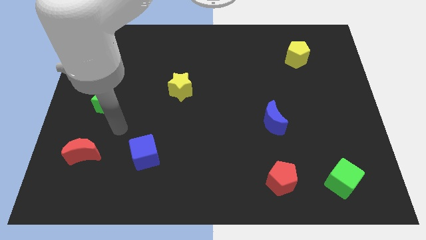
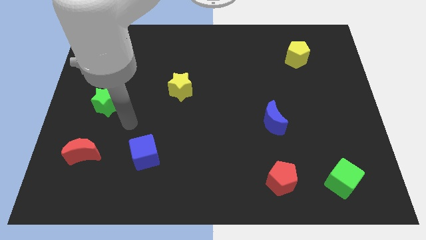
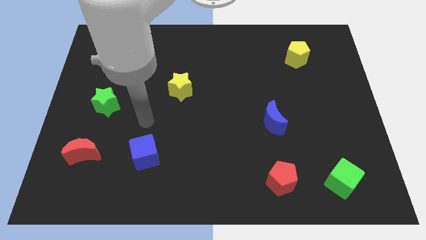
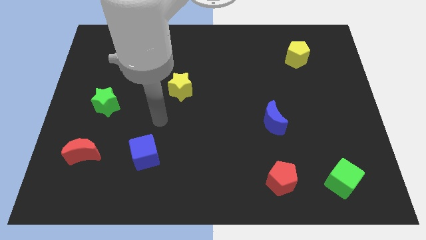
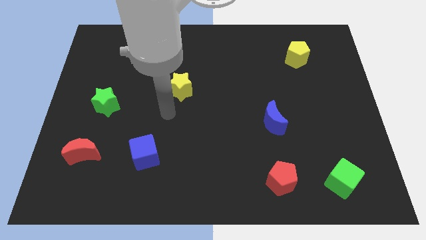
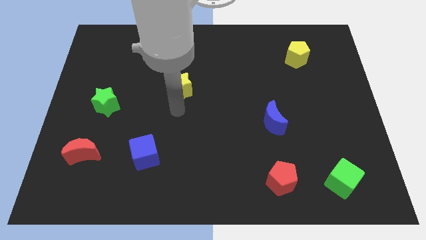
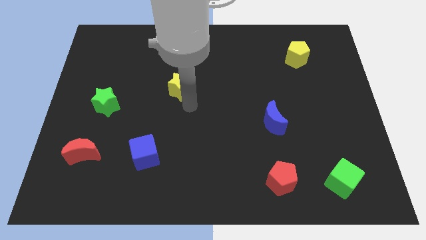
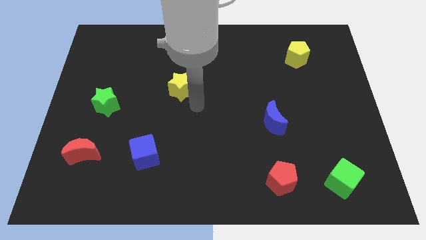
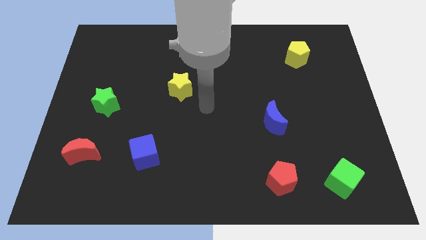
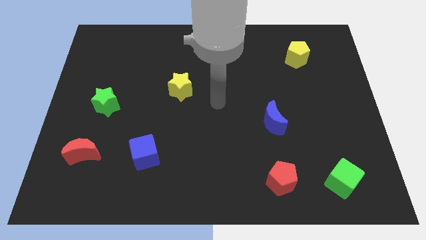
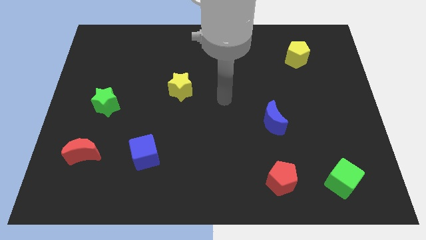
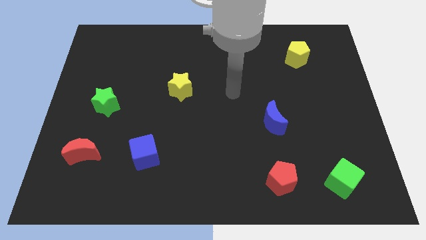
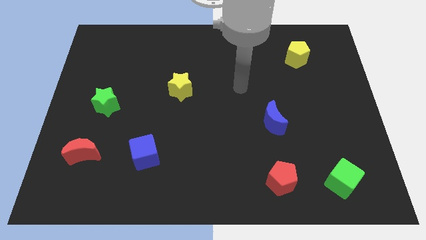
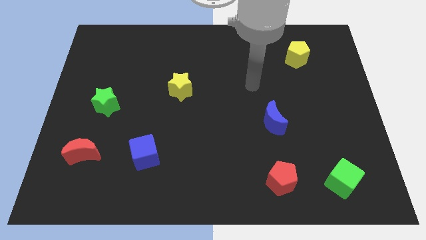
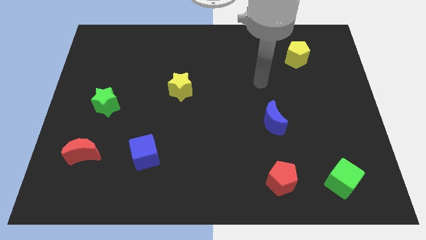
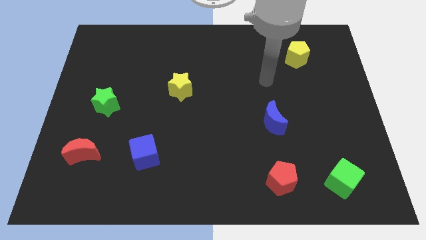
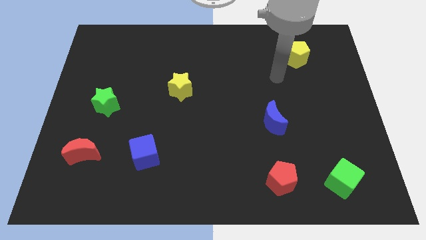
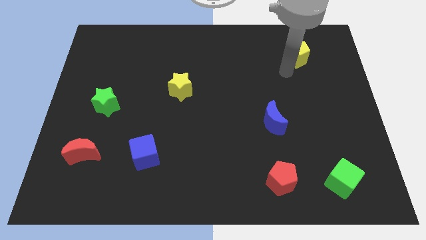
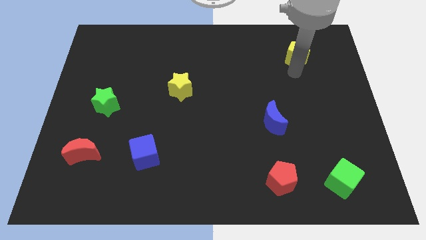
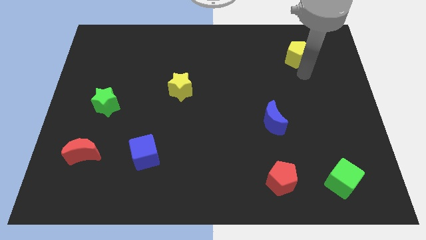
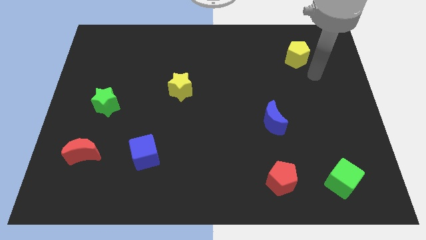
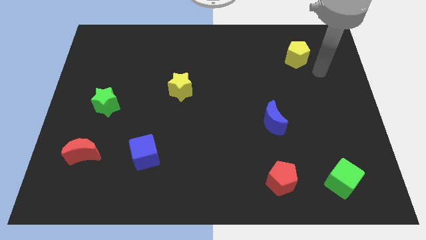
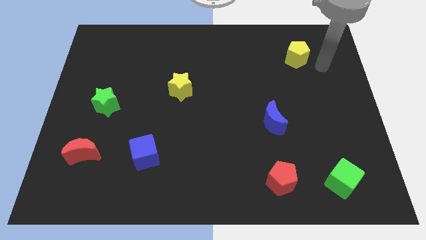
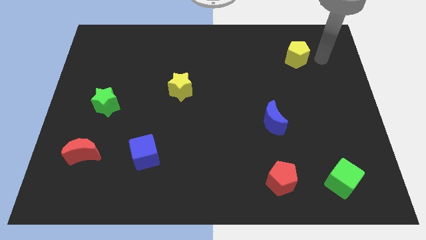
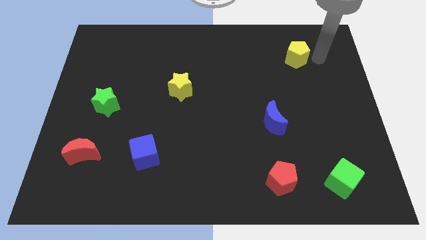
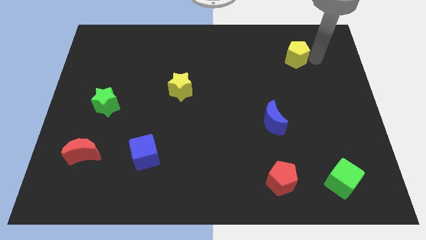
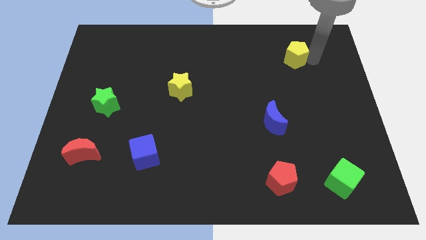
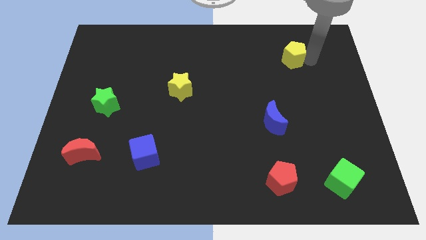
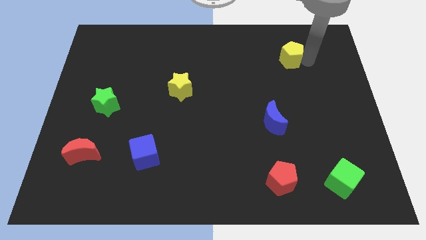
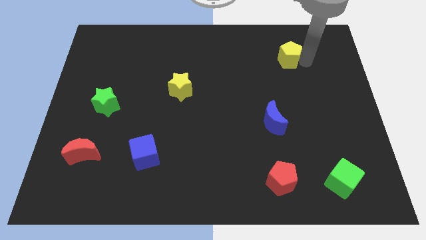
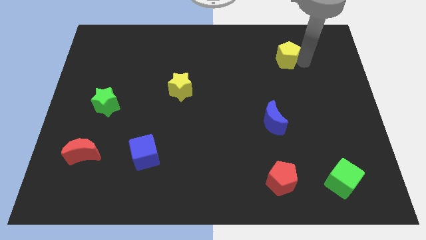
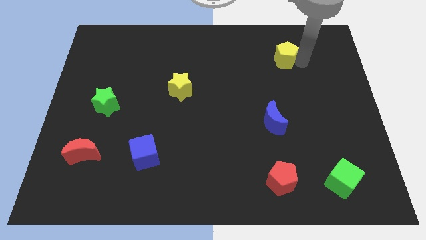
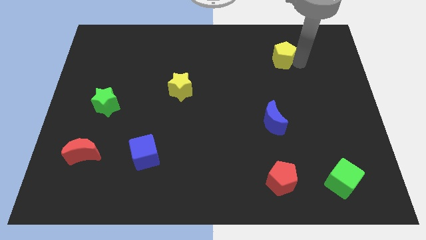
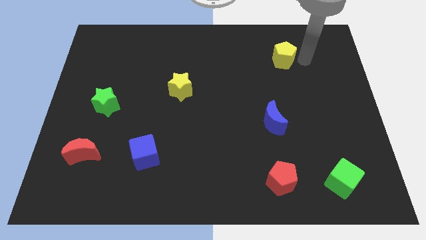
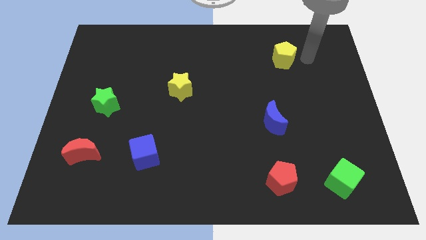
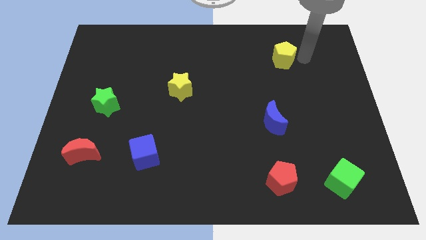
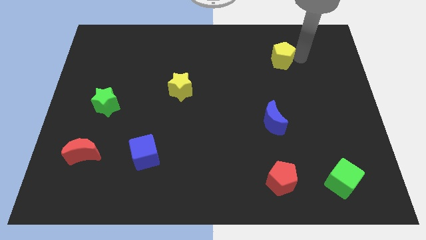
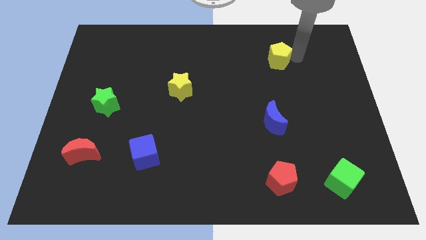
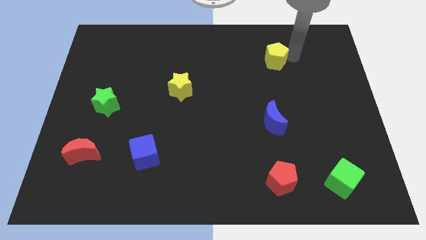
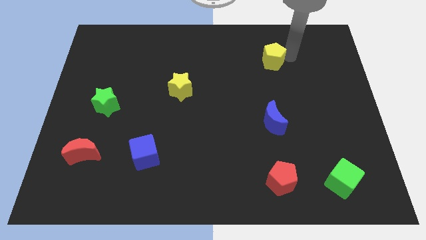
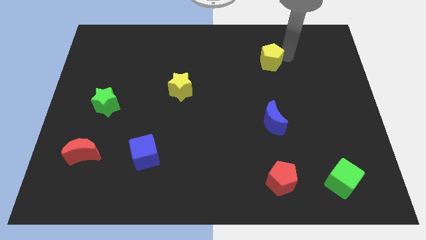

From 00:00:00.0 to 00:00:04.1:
slightly slide the yellow pentagon left

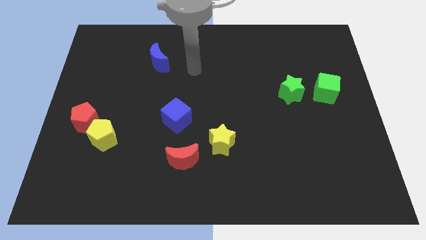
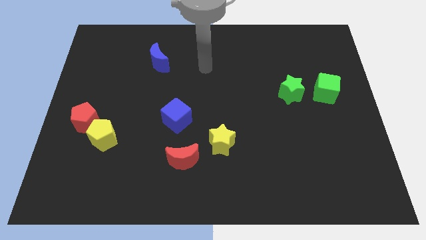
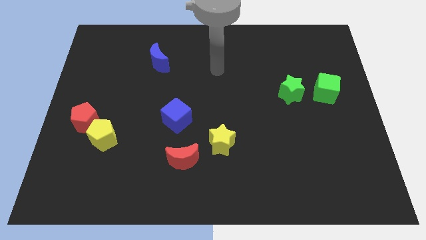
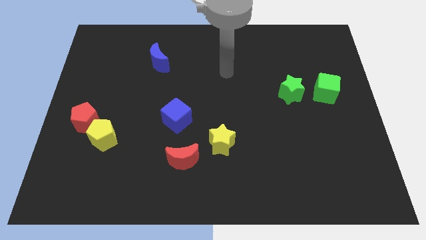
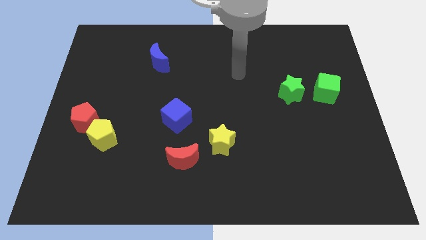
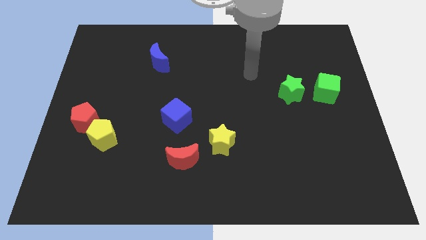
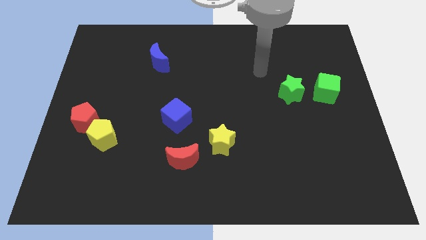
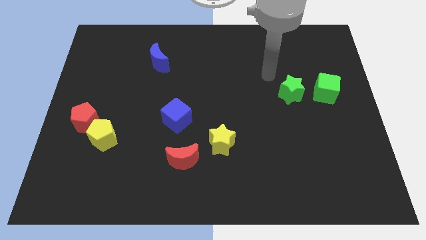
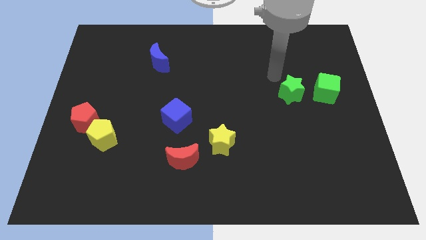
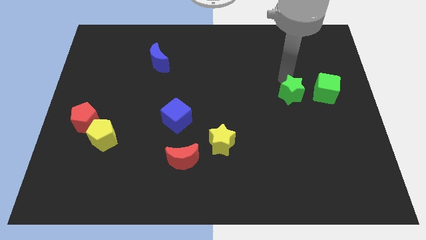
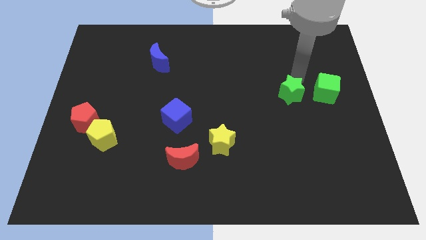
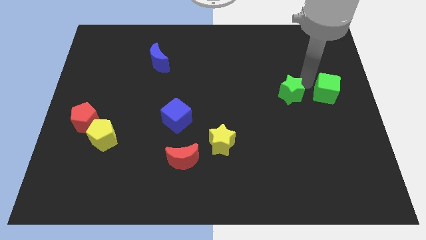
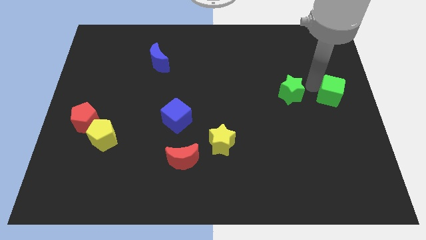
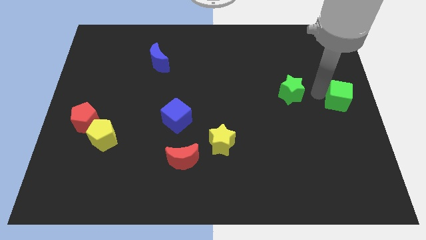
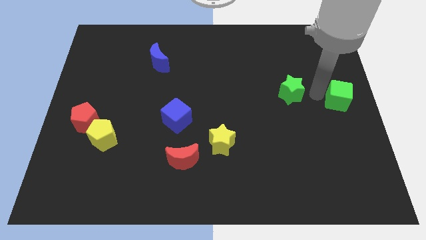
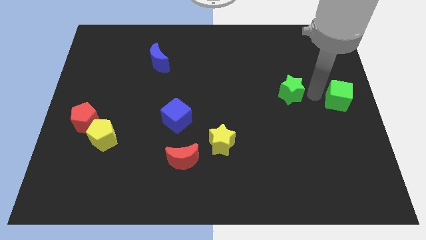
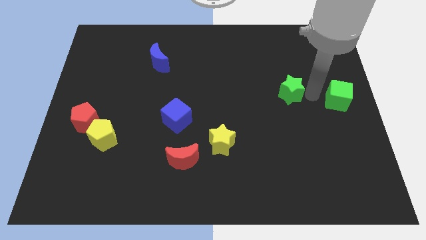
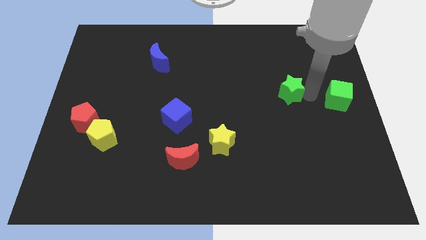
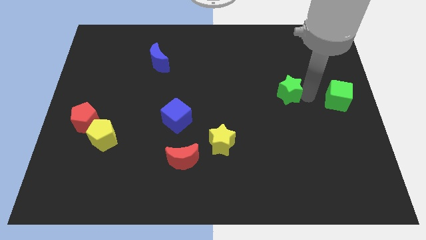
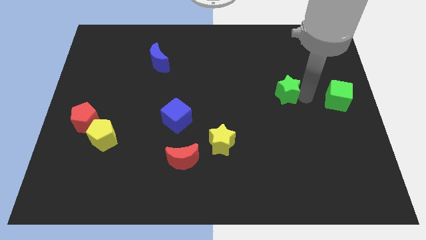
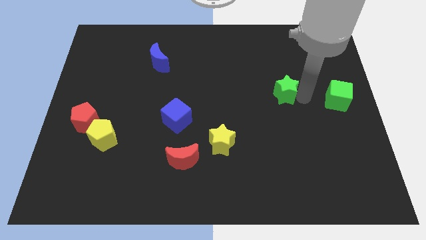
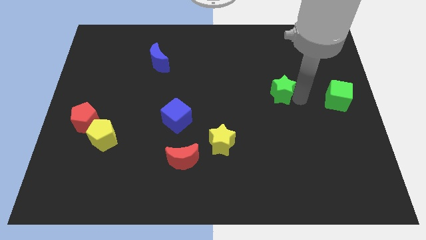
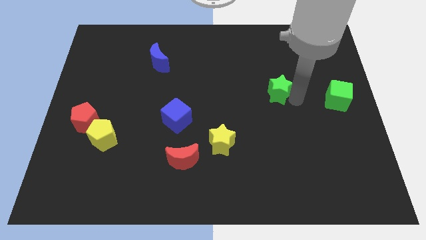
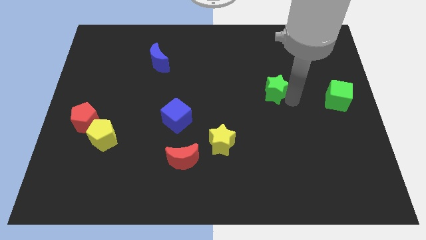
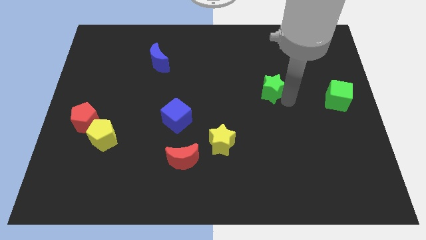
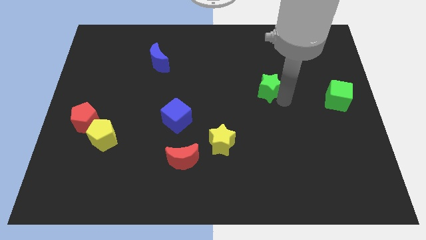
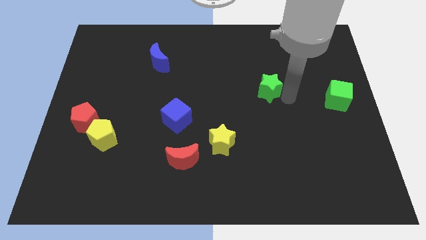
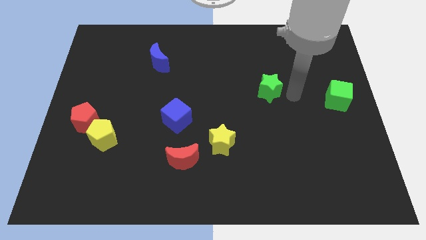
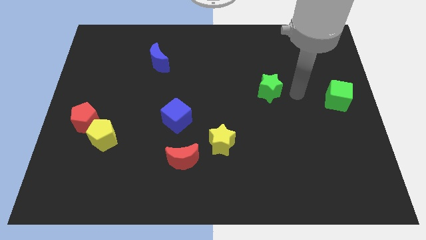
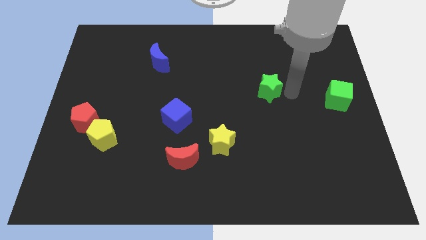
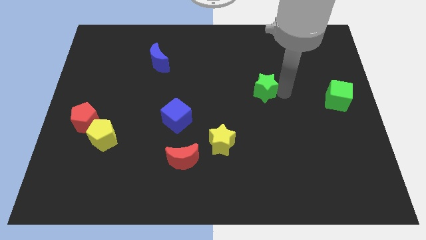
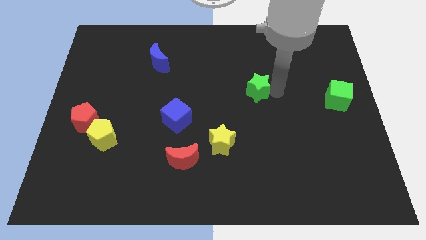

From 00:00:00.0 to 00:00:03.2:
slightly move the green star to the left

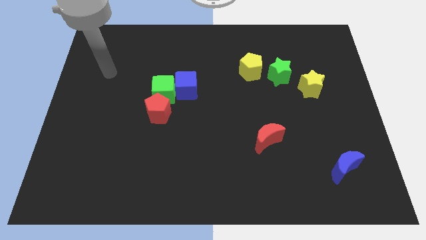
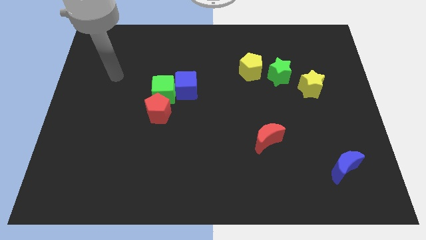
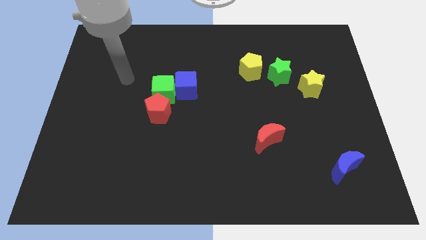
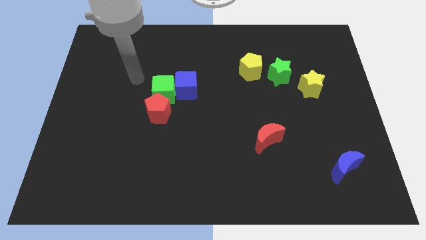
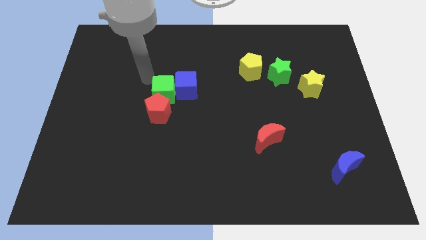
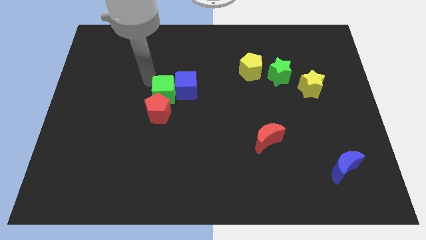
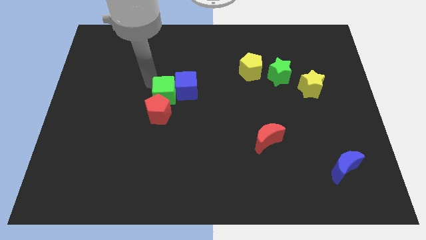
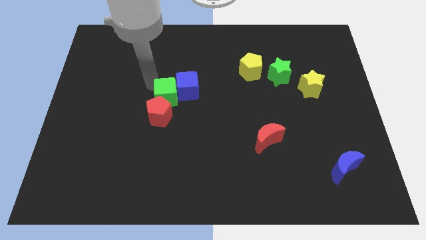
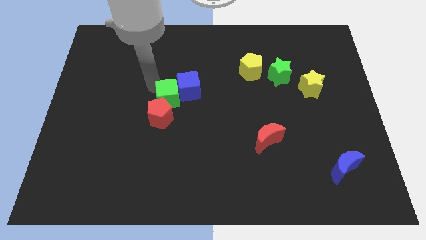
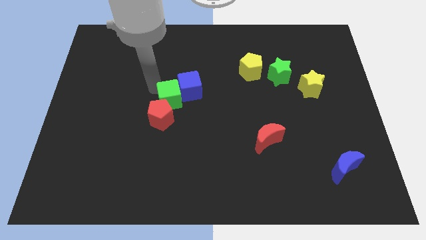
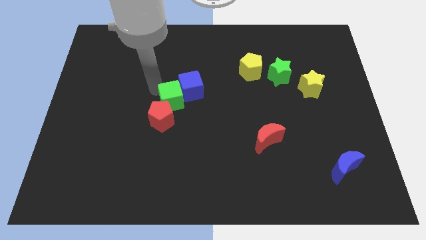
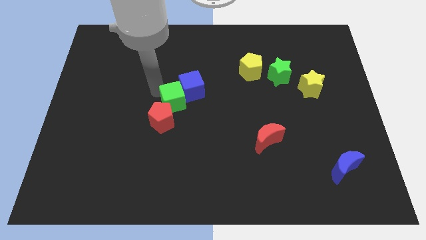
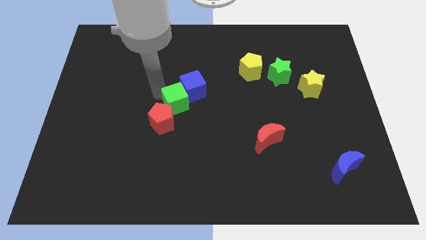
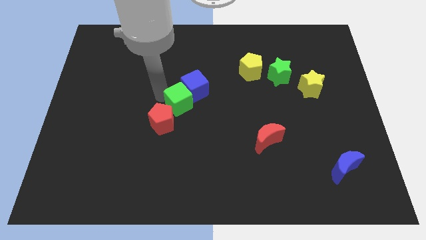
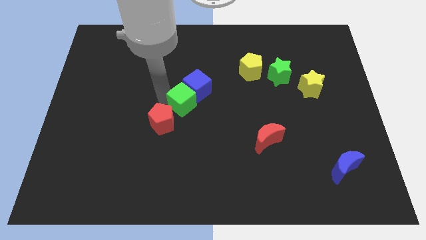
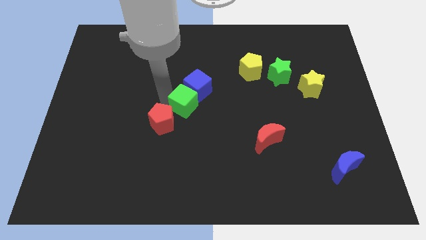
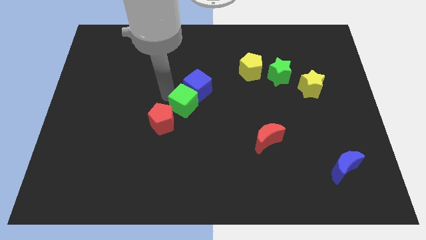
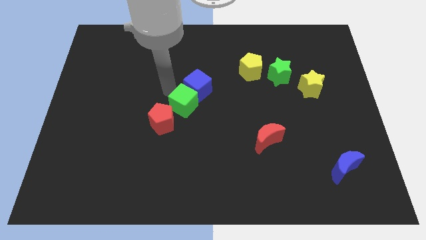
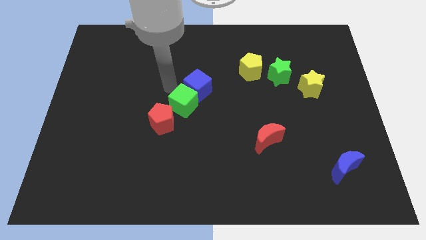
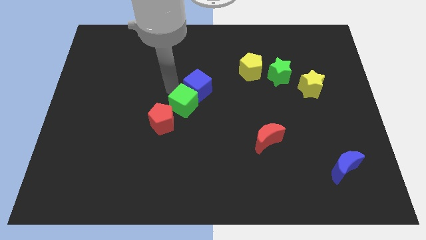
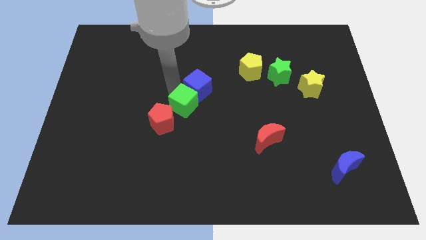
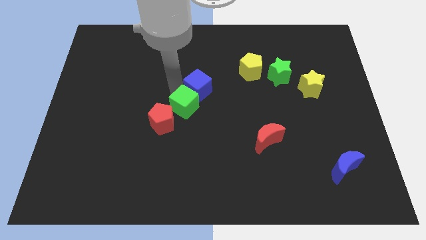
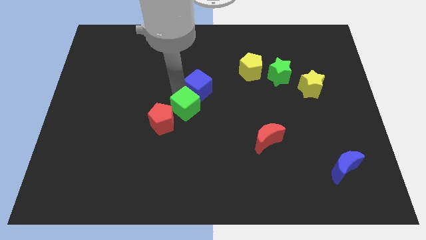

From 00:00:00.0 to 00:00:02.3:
slide the green cube somewhat down and then to the right
